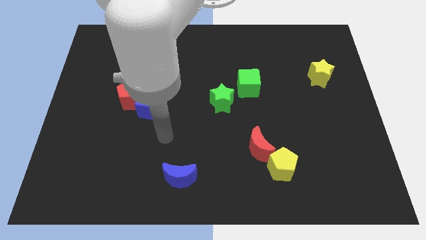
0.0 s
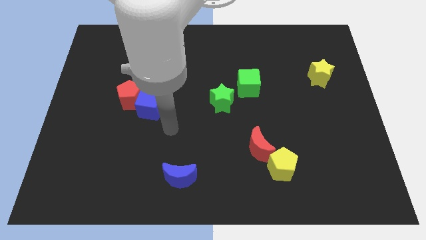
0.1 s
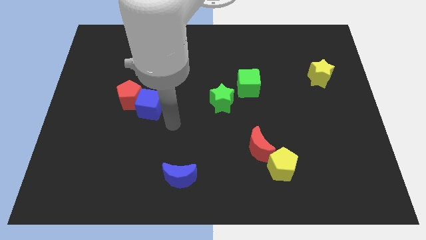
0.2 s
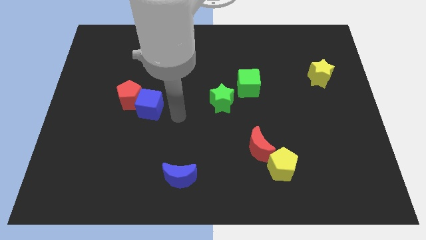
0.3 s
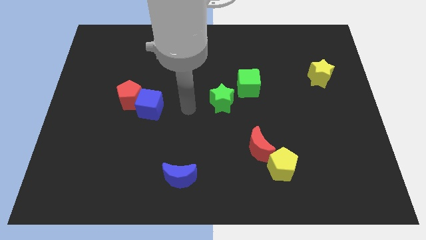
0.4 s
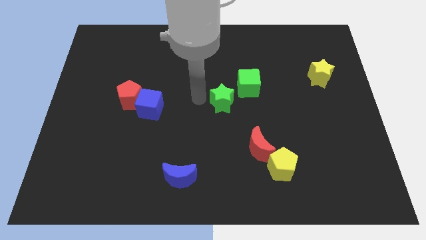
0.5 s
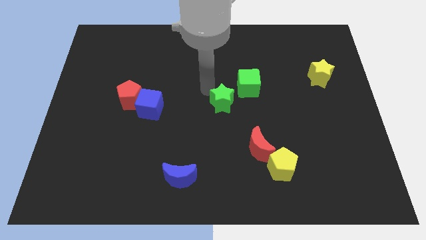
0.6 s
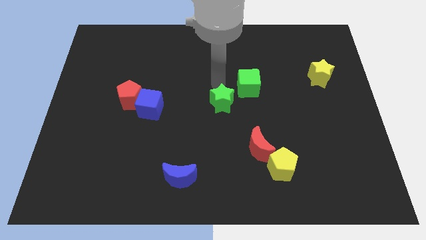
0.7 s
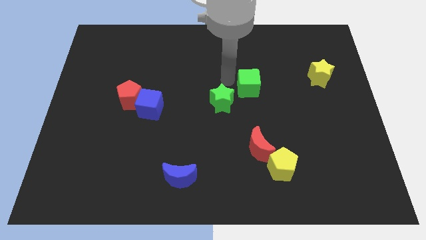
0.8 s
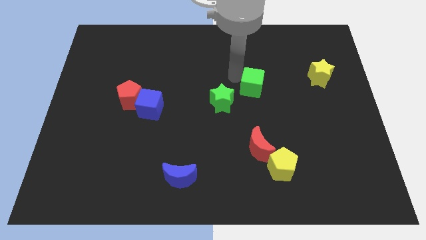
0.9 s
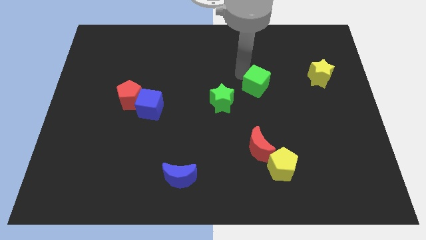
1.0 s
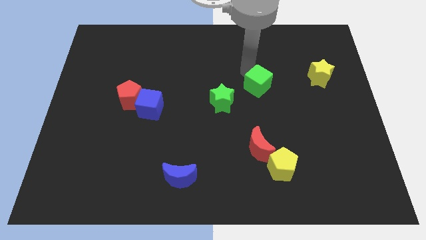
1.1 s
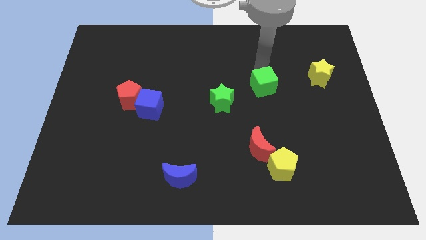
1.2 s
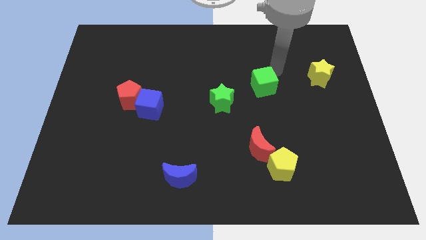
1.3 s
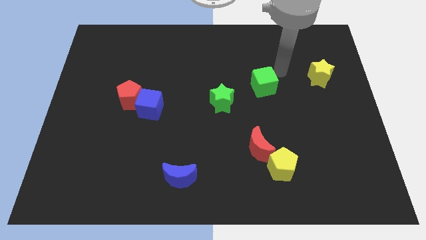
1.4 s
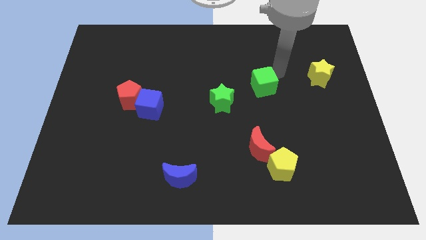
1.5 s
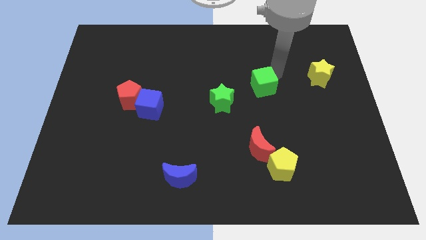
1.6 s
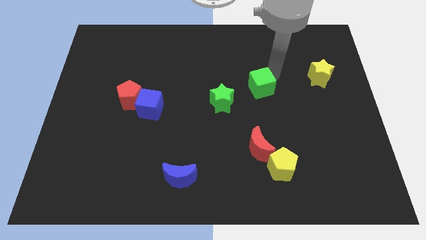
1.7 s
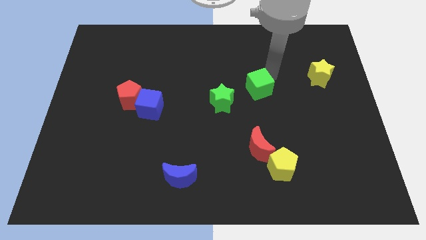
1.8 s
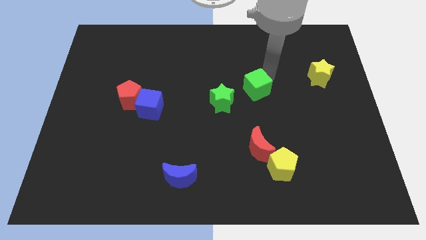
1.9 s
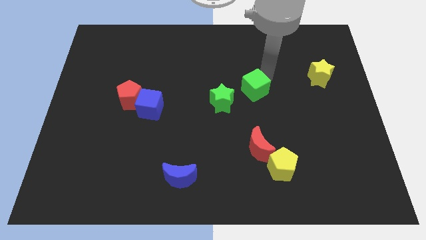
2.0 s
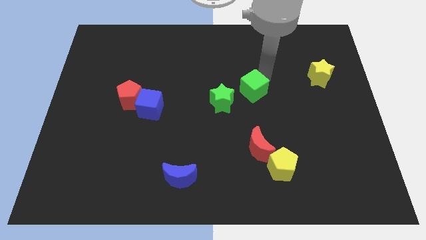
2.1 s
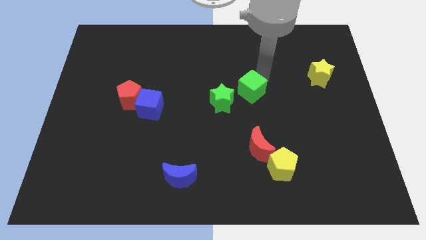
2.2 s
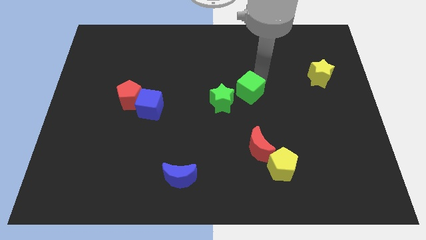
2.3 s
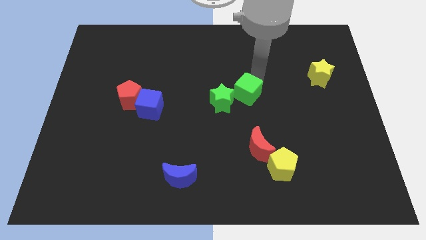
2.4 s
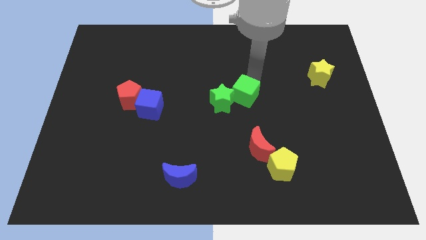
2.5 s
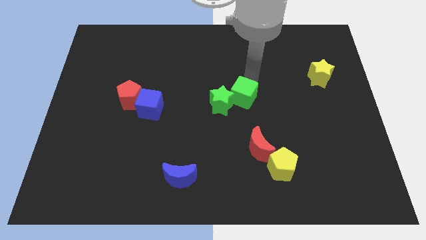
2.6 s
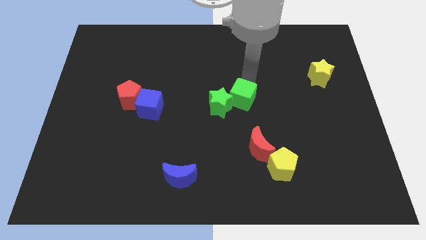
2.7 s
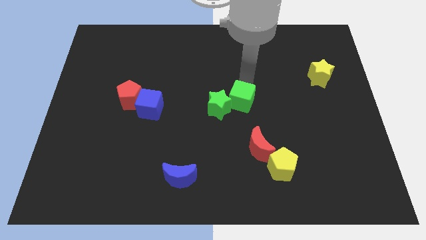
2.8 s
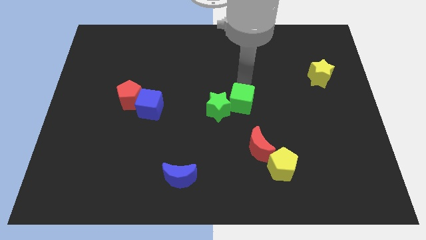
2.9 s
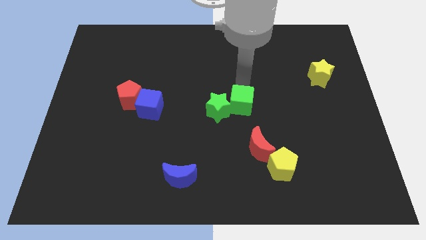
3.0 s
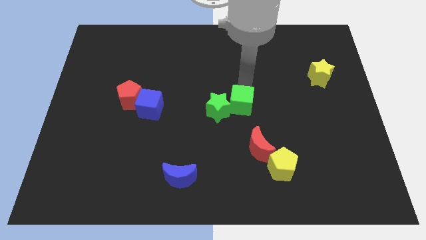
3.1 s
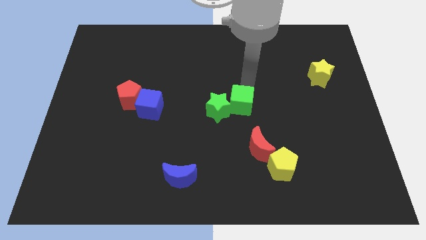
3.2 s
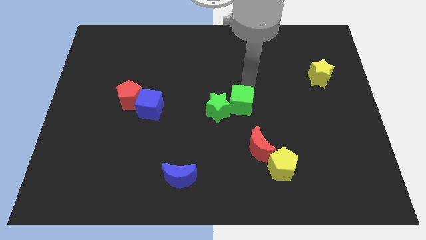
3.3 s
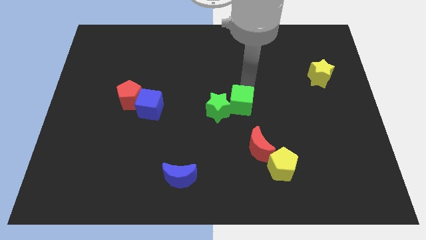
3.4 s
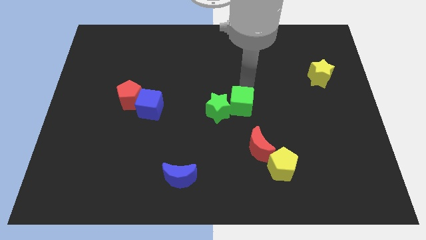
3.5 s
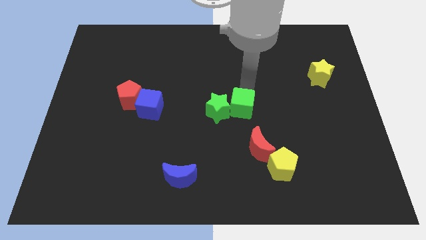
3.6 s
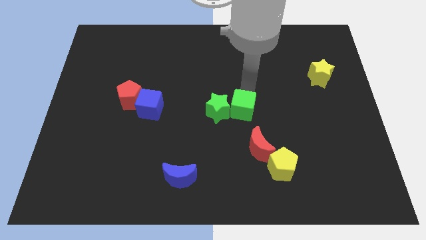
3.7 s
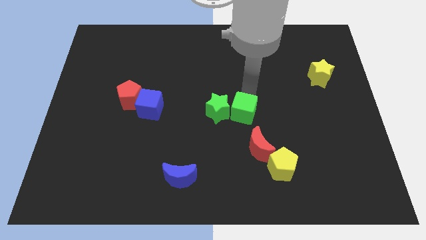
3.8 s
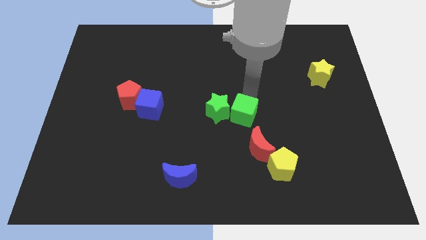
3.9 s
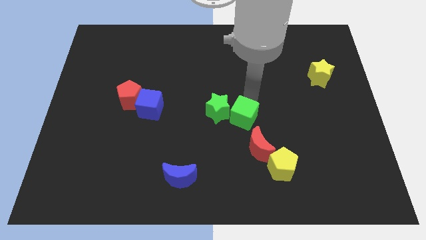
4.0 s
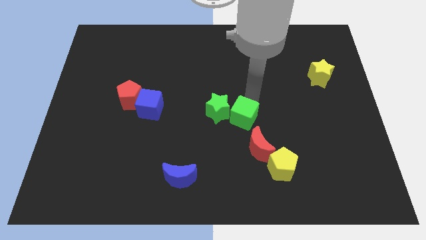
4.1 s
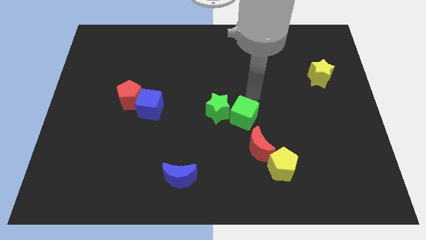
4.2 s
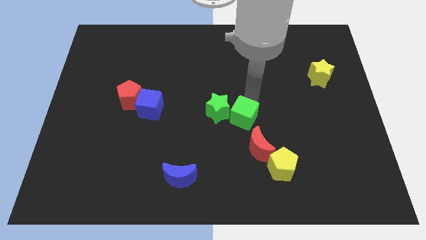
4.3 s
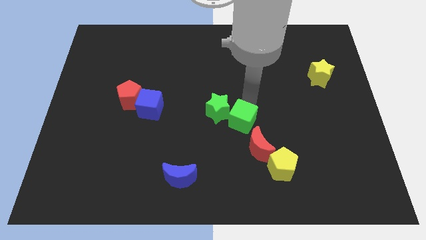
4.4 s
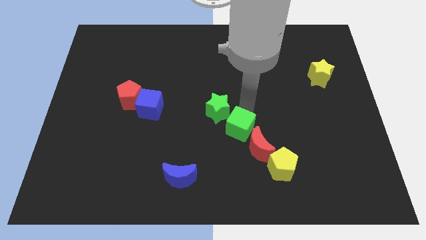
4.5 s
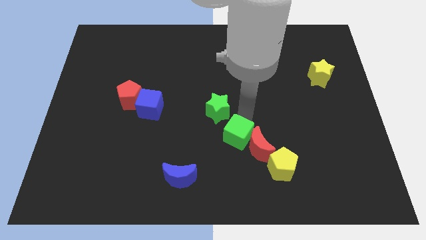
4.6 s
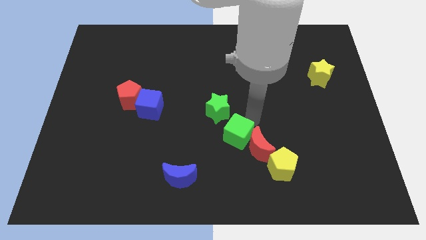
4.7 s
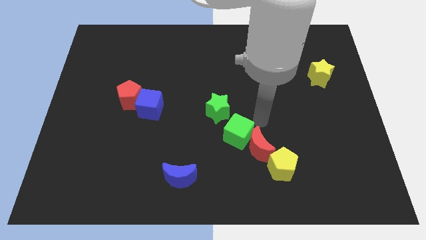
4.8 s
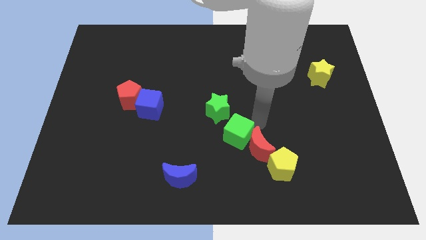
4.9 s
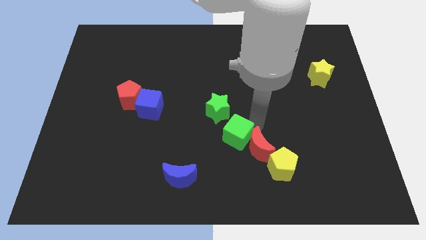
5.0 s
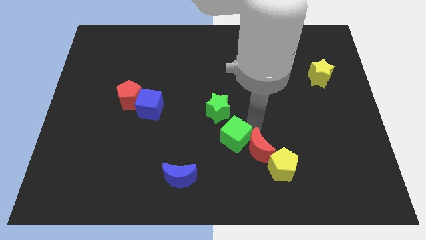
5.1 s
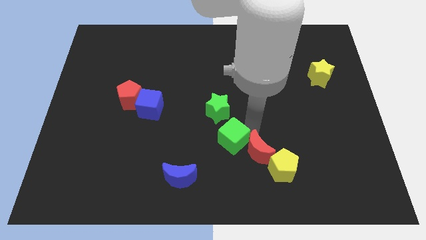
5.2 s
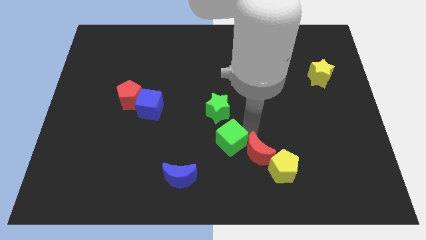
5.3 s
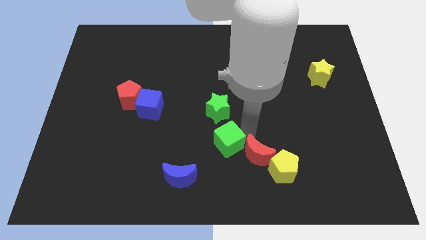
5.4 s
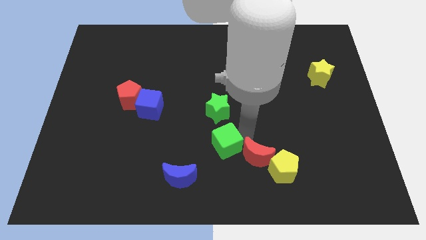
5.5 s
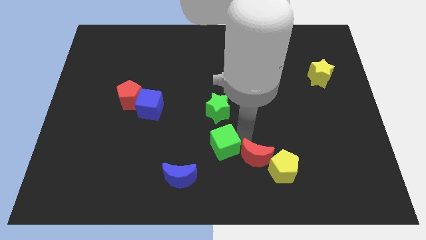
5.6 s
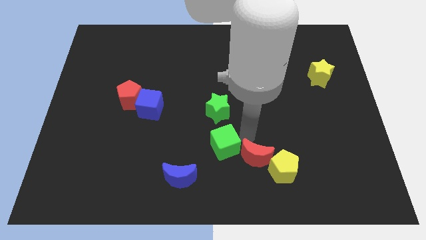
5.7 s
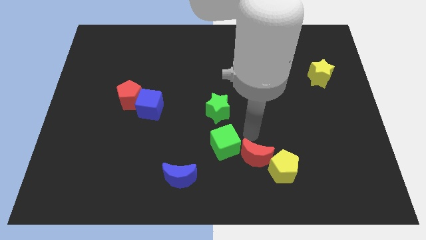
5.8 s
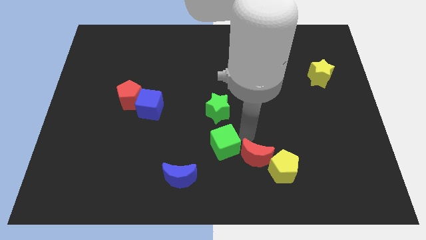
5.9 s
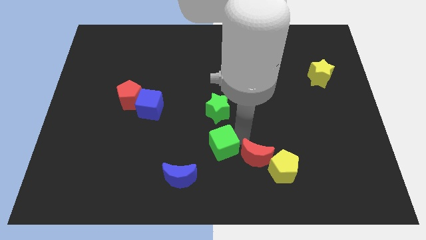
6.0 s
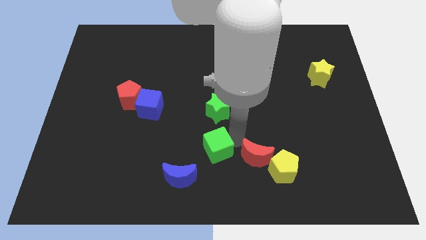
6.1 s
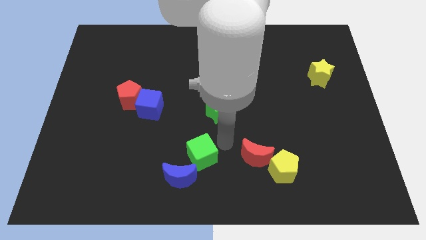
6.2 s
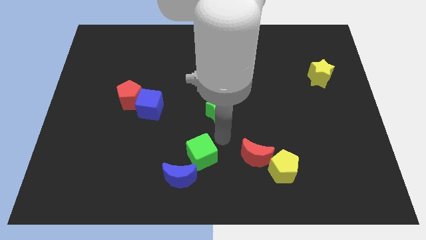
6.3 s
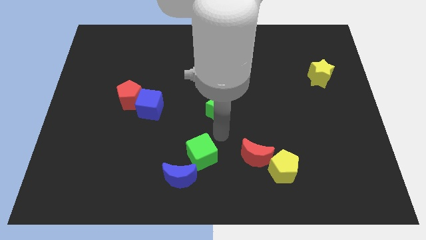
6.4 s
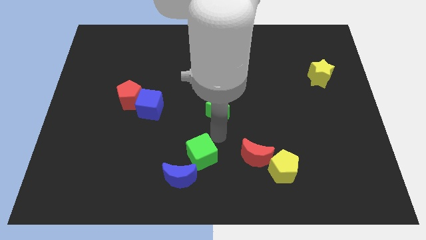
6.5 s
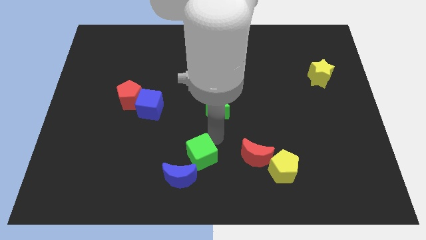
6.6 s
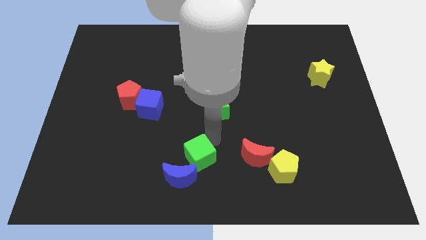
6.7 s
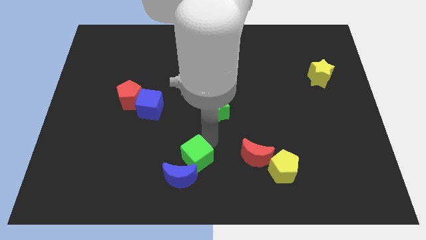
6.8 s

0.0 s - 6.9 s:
push the green cube close to the blue moon
